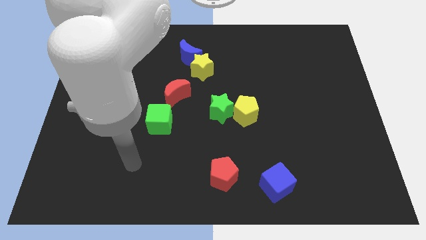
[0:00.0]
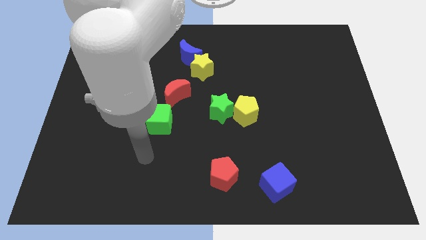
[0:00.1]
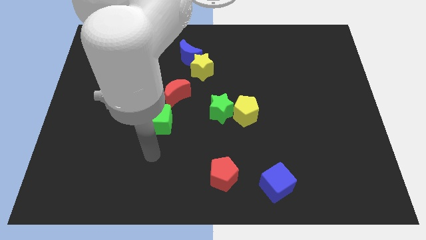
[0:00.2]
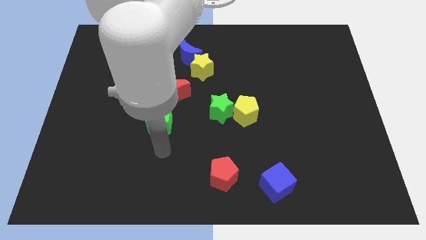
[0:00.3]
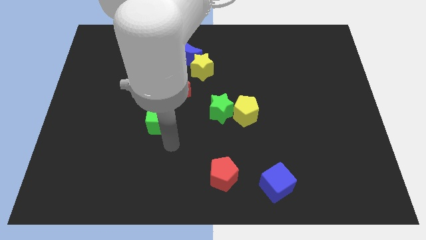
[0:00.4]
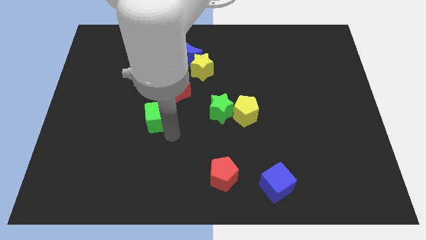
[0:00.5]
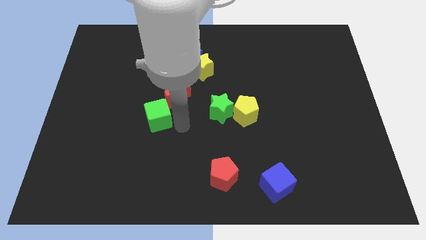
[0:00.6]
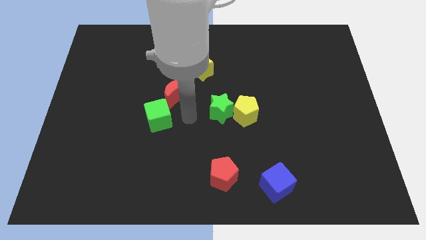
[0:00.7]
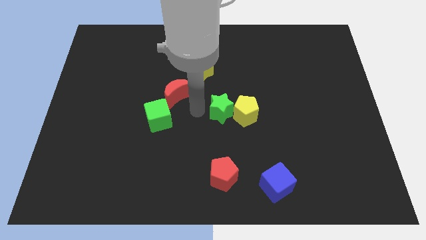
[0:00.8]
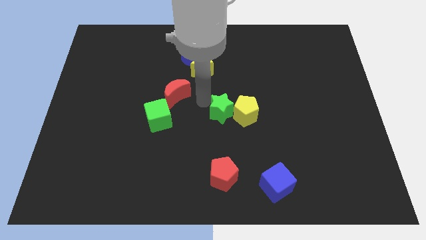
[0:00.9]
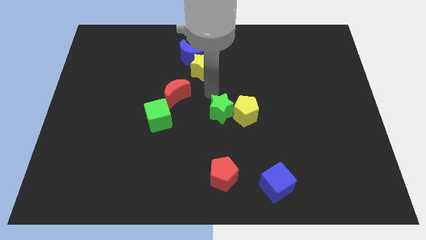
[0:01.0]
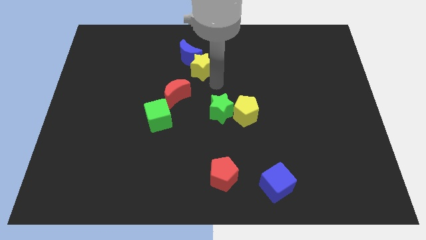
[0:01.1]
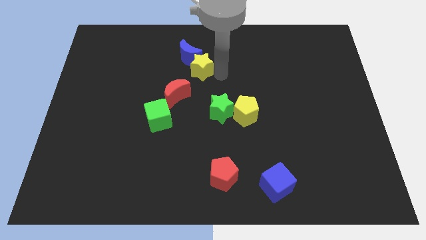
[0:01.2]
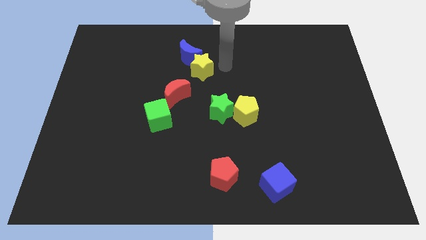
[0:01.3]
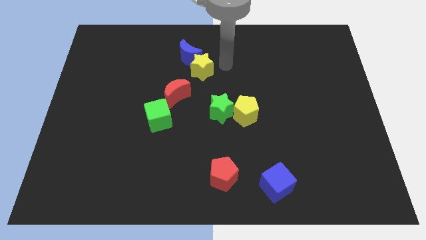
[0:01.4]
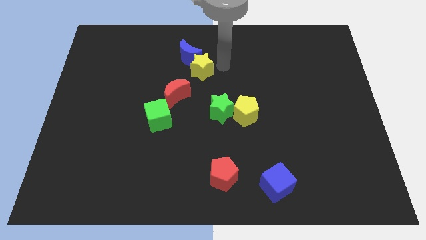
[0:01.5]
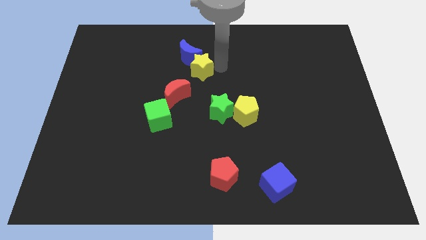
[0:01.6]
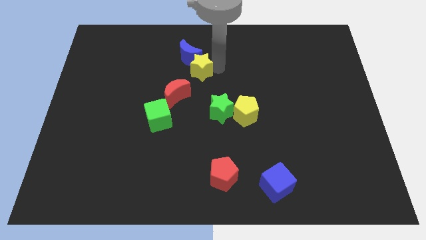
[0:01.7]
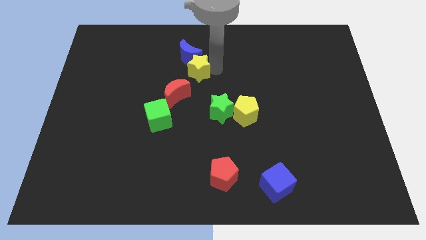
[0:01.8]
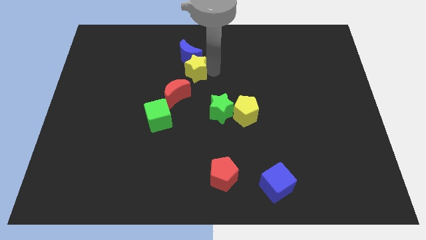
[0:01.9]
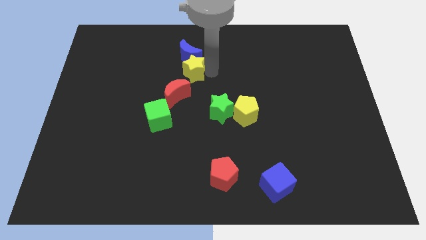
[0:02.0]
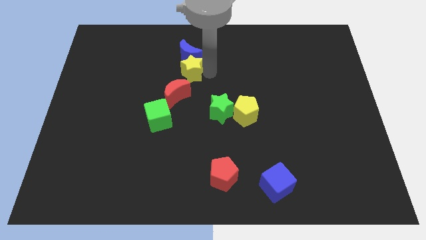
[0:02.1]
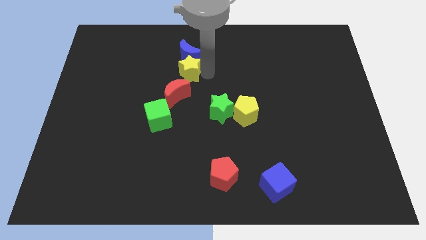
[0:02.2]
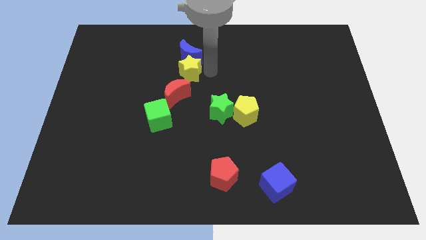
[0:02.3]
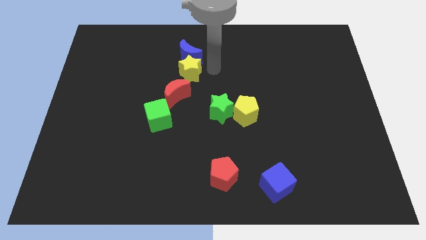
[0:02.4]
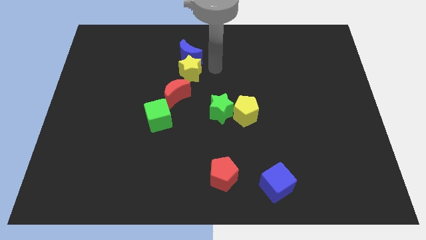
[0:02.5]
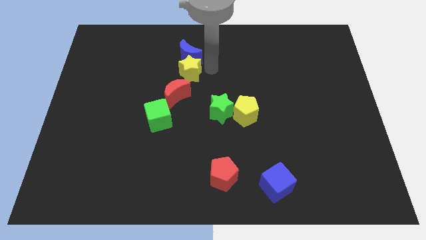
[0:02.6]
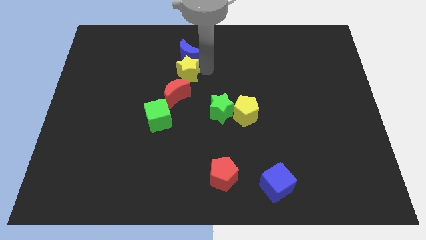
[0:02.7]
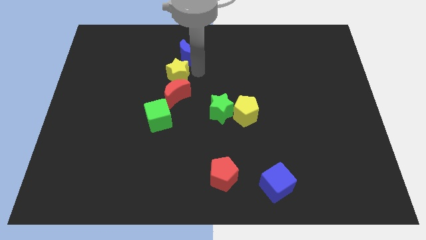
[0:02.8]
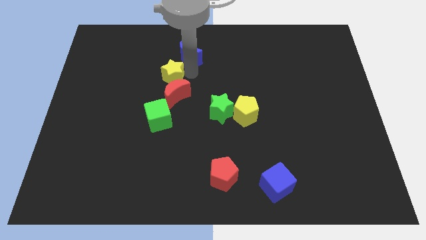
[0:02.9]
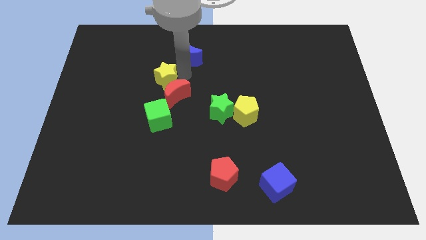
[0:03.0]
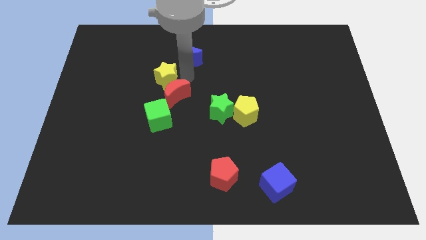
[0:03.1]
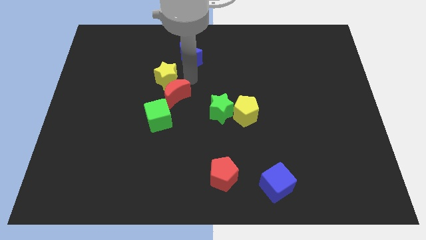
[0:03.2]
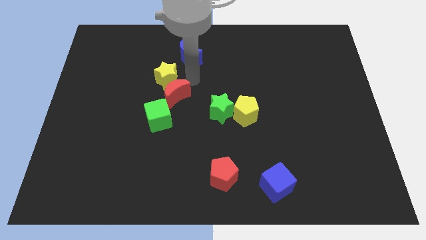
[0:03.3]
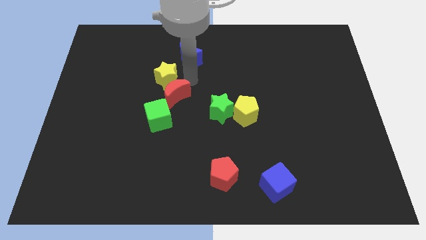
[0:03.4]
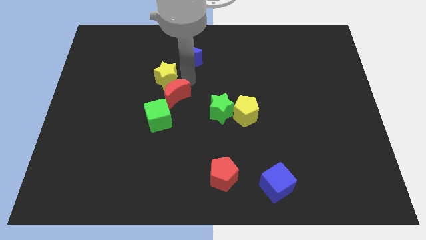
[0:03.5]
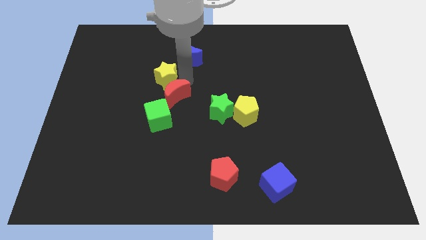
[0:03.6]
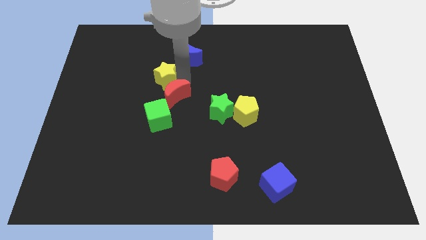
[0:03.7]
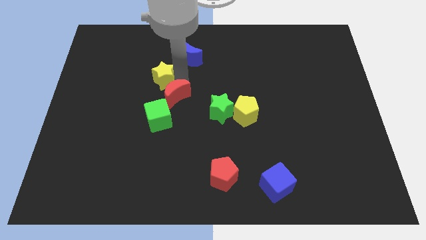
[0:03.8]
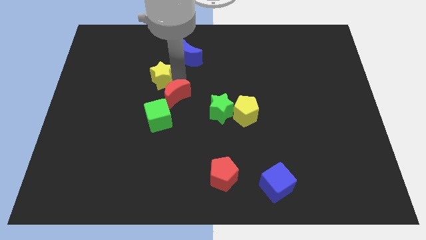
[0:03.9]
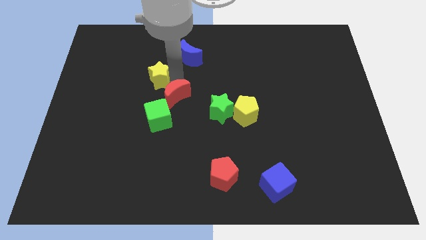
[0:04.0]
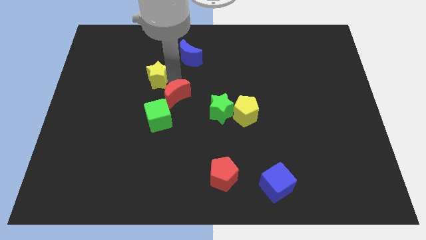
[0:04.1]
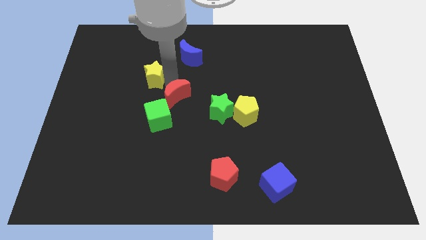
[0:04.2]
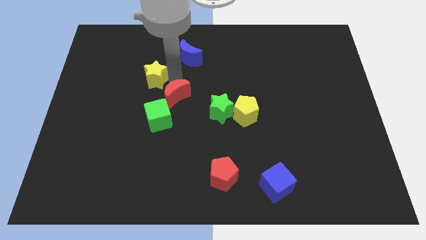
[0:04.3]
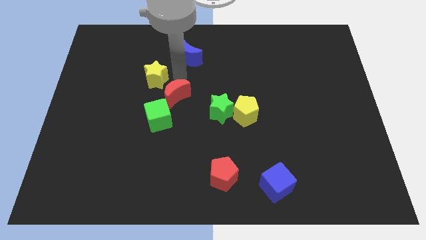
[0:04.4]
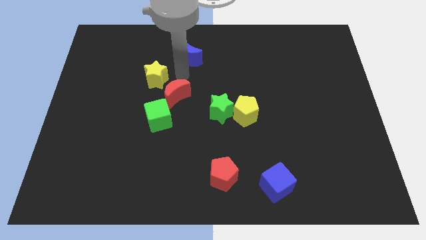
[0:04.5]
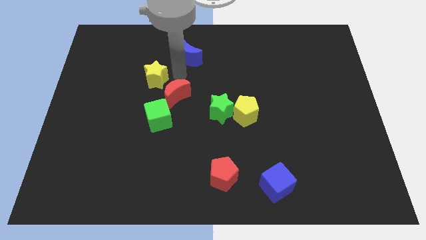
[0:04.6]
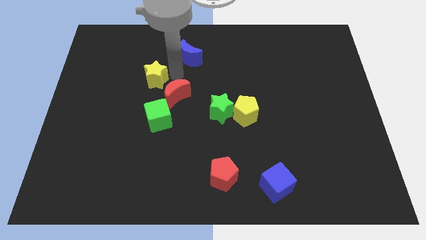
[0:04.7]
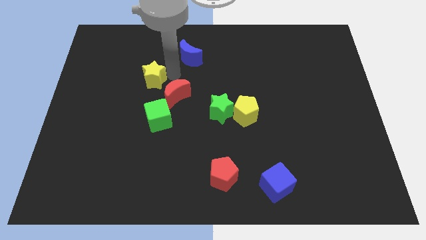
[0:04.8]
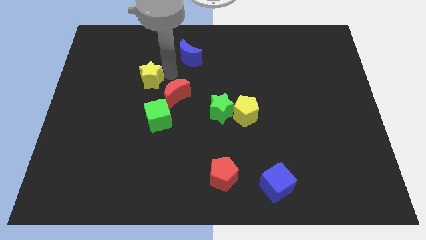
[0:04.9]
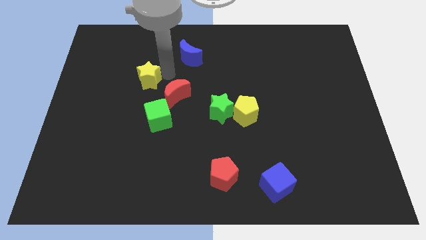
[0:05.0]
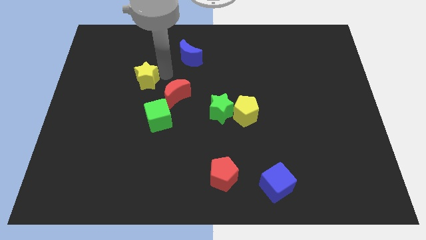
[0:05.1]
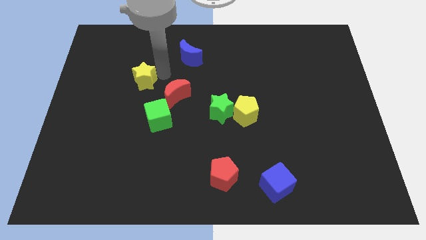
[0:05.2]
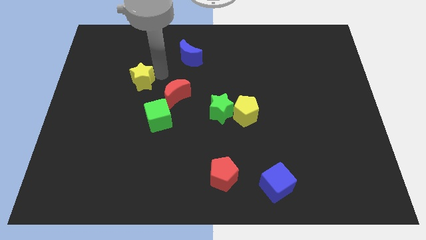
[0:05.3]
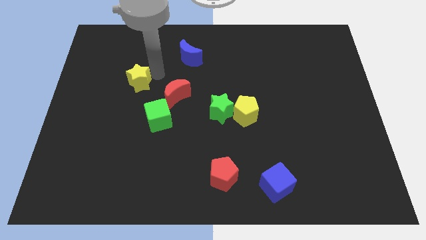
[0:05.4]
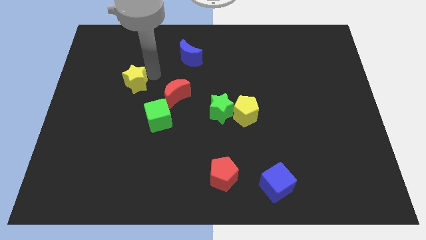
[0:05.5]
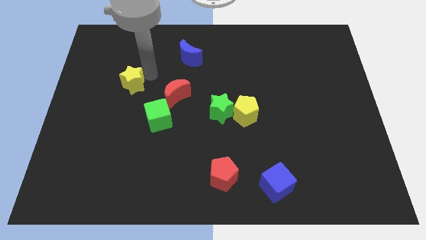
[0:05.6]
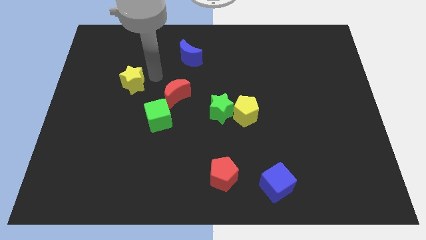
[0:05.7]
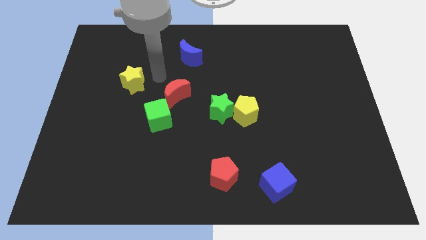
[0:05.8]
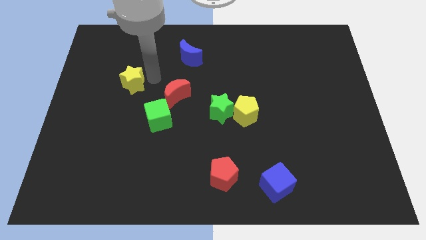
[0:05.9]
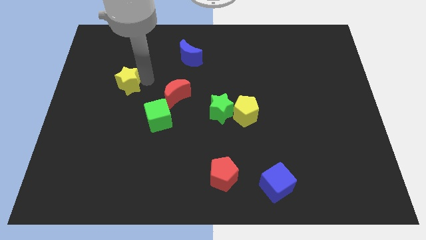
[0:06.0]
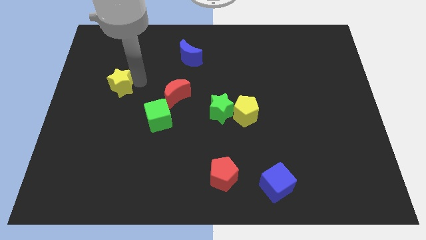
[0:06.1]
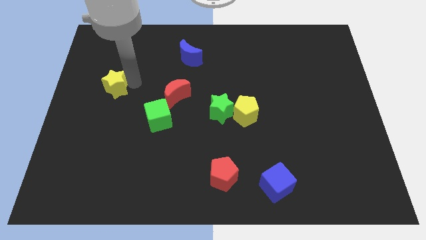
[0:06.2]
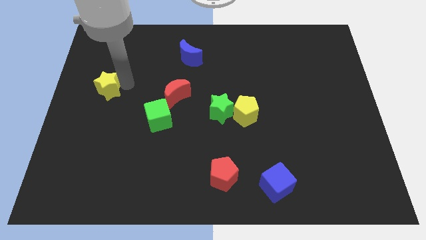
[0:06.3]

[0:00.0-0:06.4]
push the yellow star to the center left

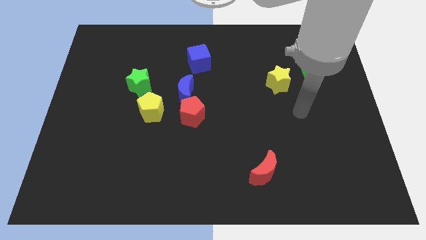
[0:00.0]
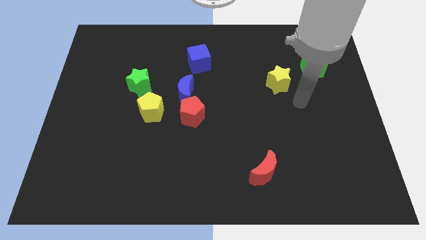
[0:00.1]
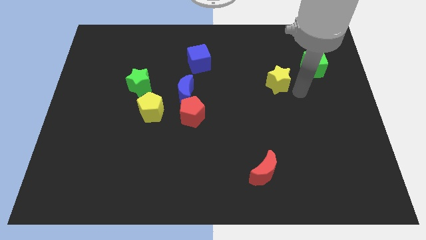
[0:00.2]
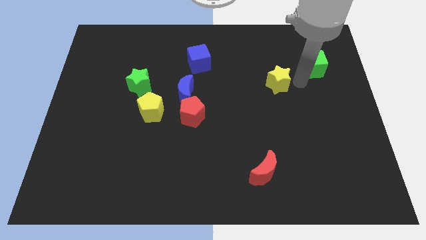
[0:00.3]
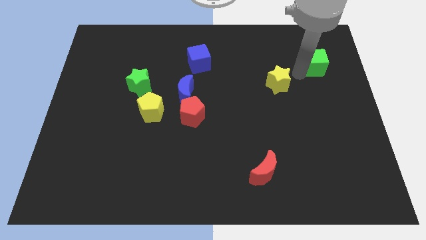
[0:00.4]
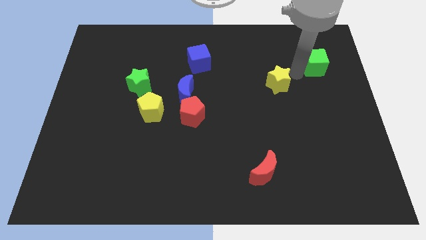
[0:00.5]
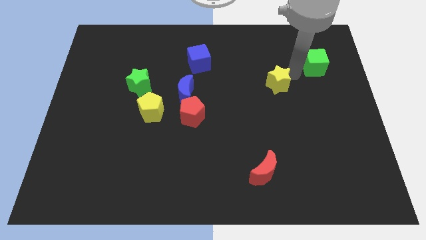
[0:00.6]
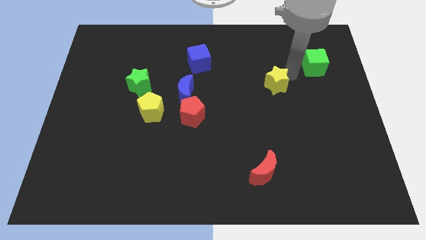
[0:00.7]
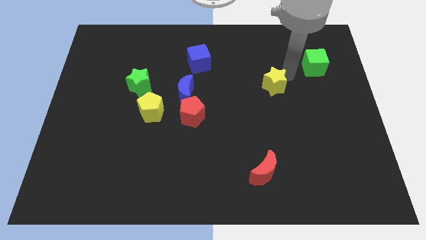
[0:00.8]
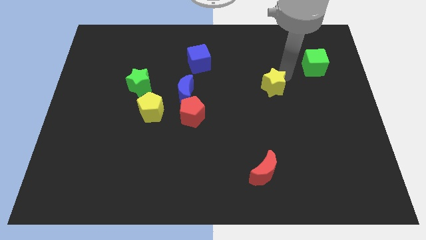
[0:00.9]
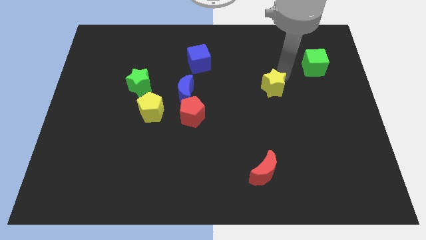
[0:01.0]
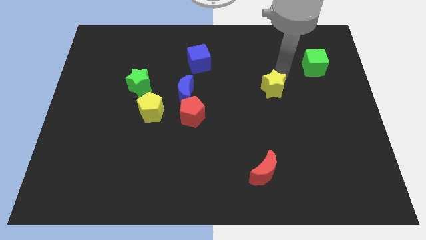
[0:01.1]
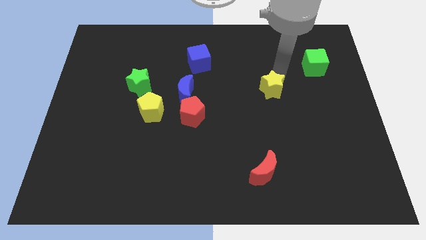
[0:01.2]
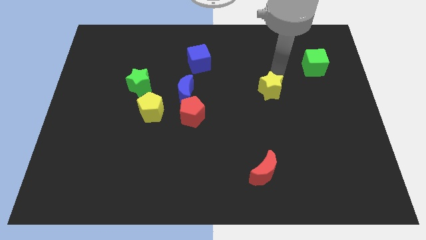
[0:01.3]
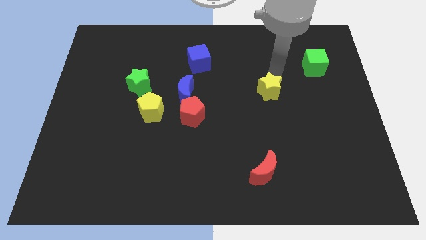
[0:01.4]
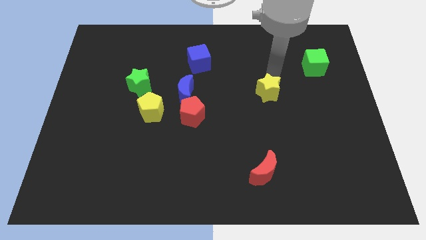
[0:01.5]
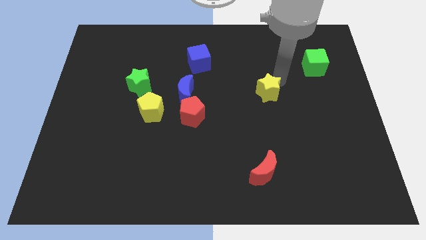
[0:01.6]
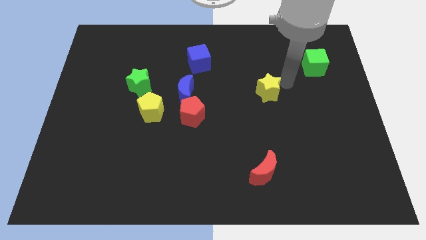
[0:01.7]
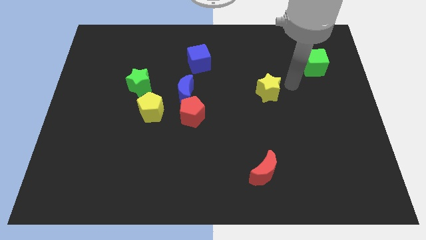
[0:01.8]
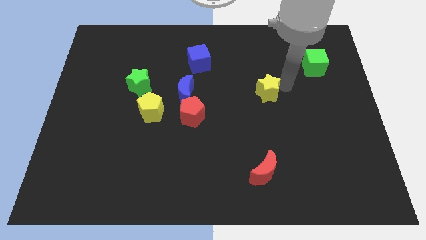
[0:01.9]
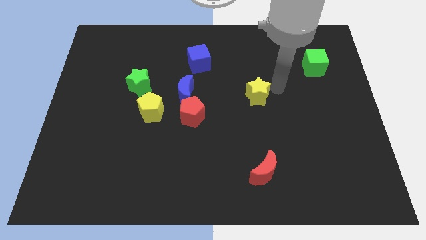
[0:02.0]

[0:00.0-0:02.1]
slide the yellow star to the center
